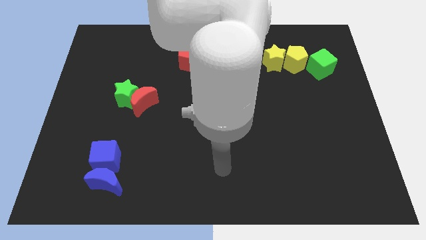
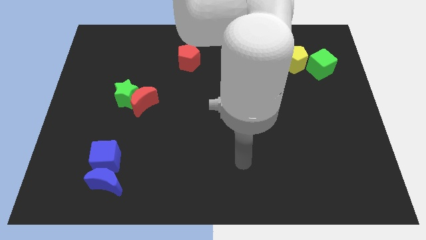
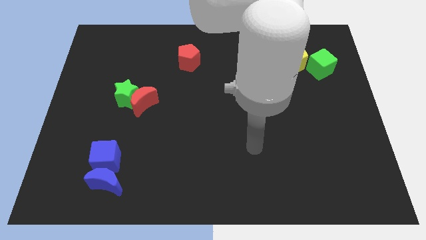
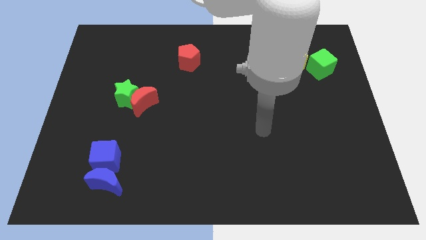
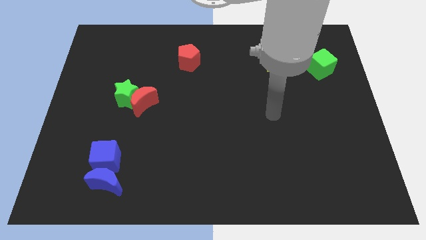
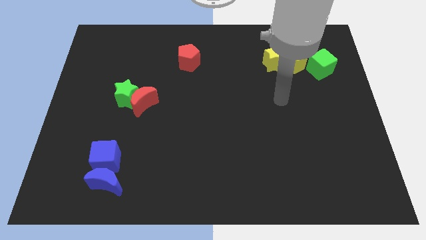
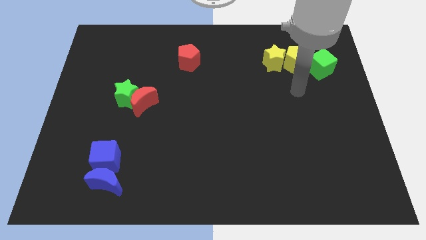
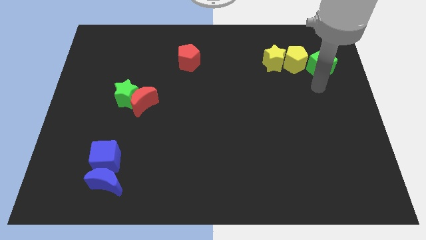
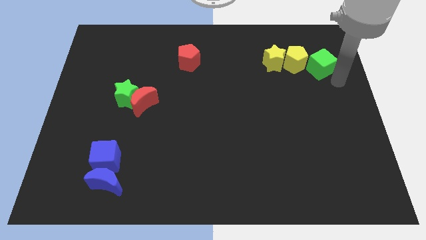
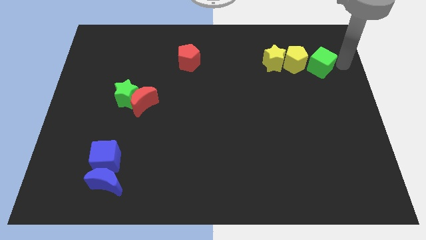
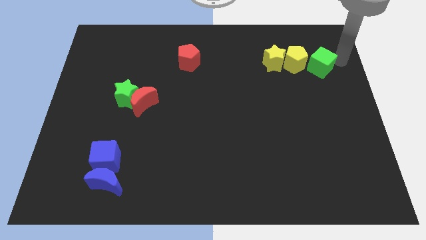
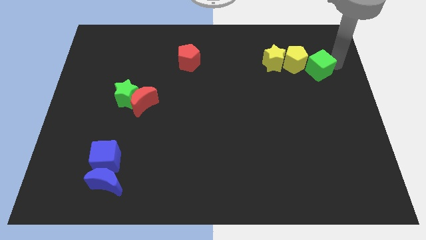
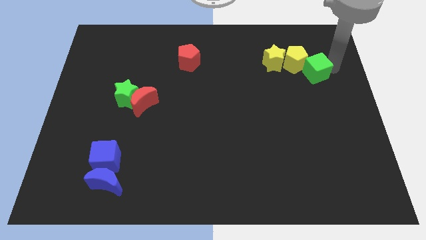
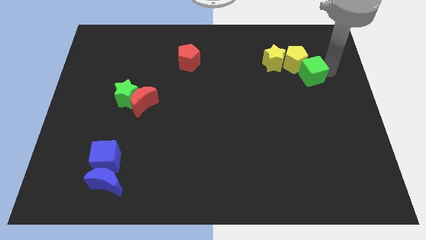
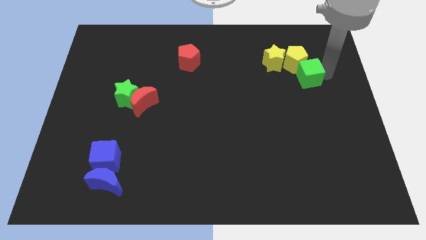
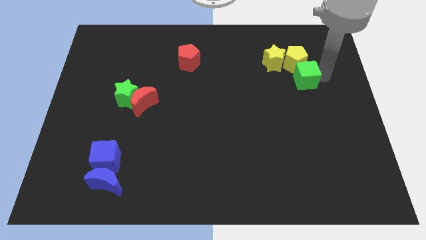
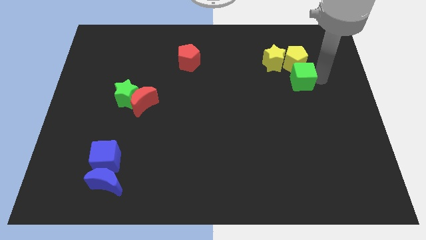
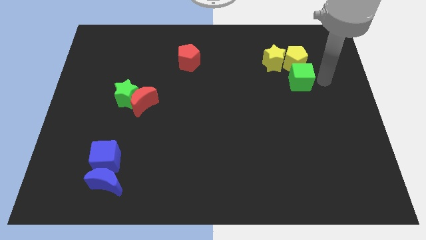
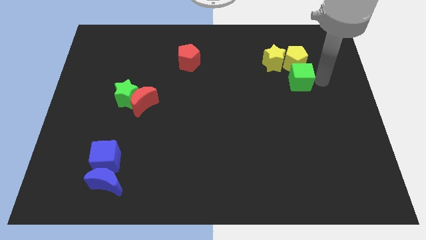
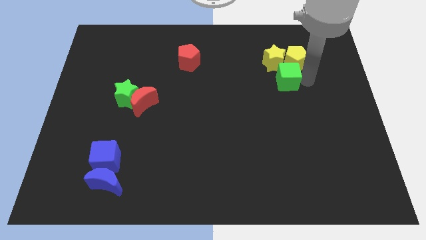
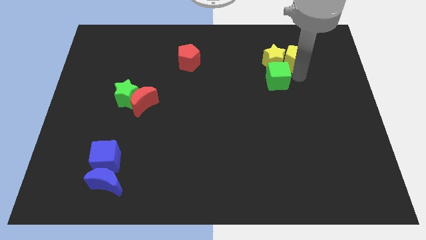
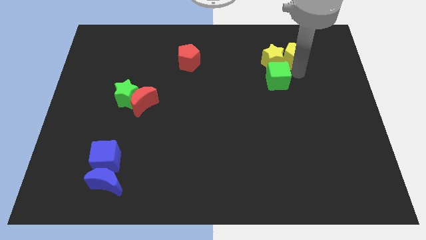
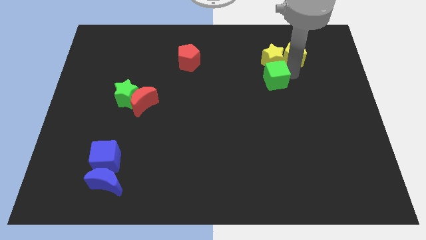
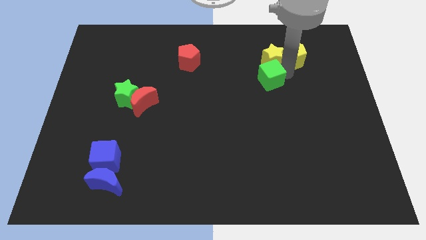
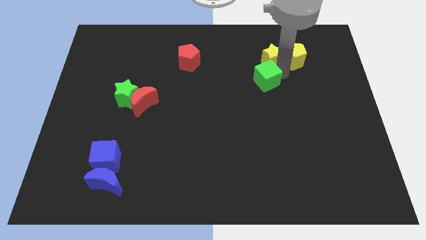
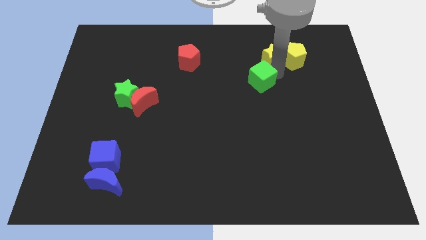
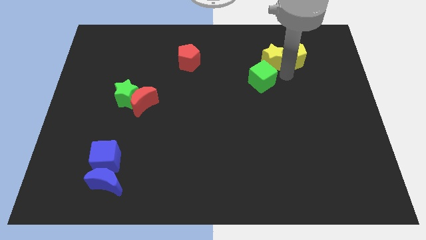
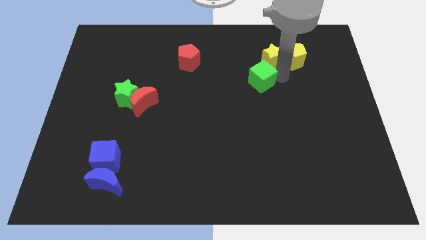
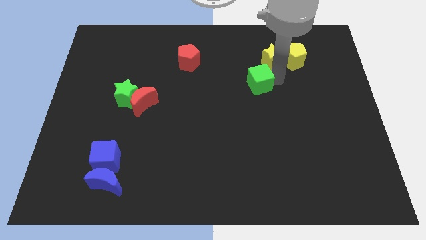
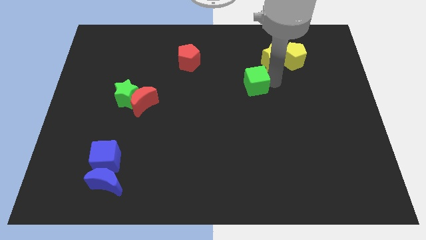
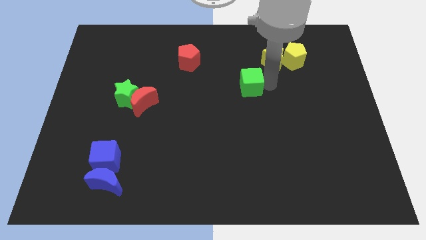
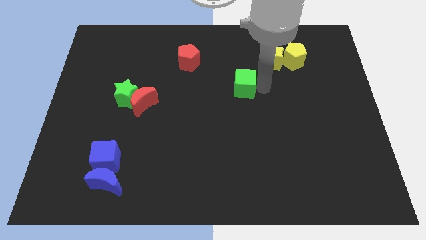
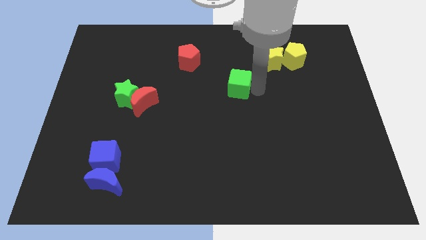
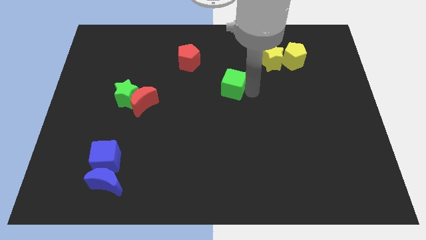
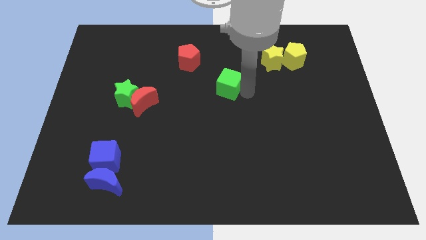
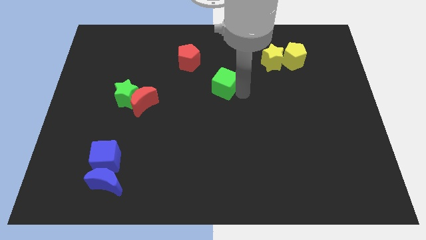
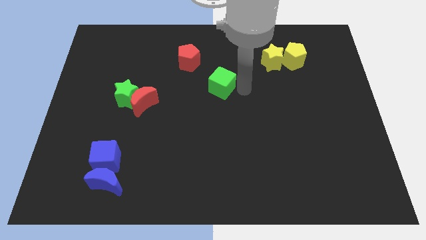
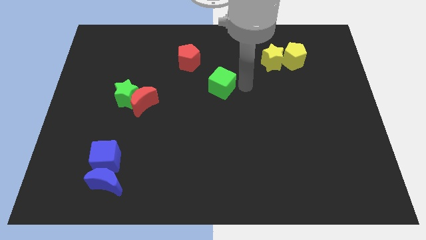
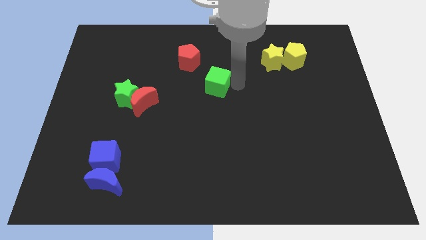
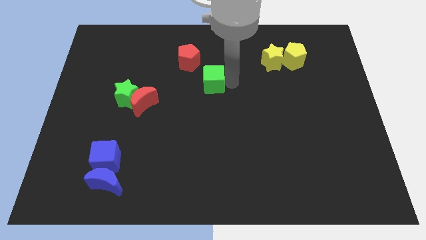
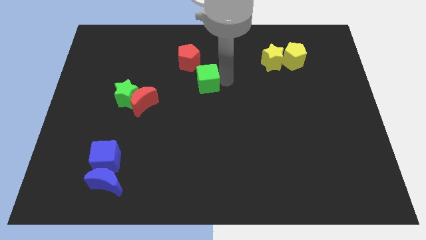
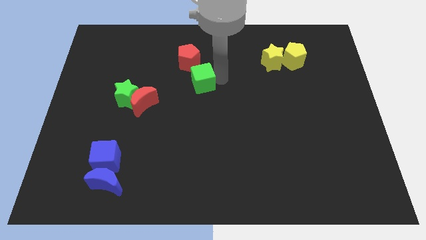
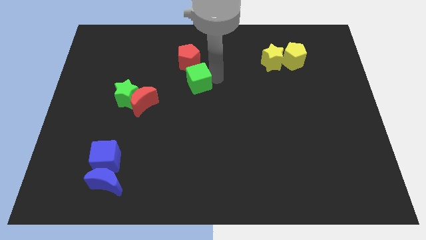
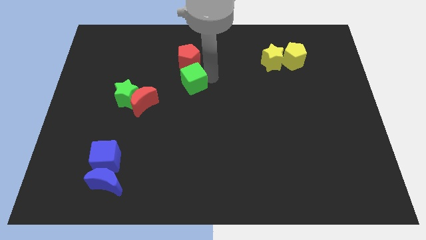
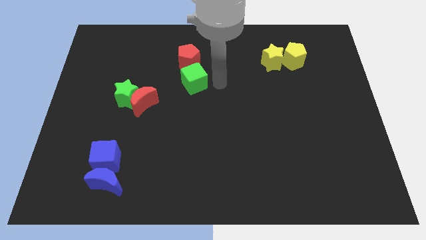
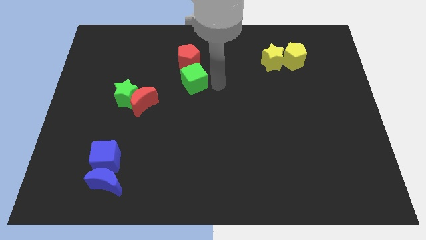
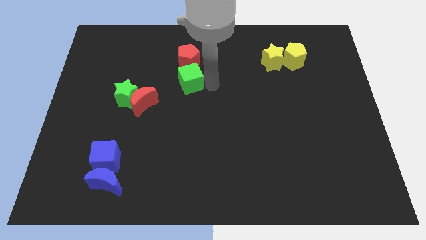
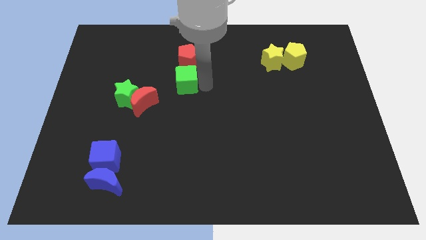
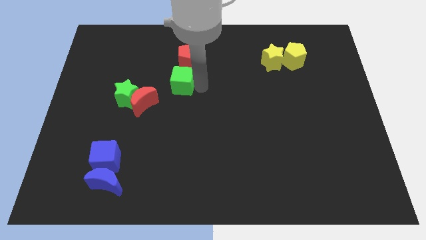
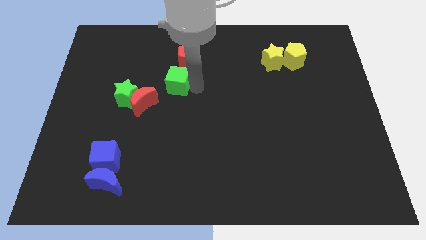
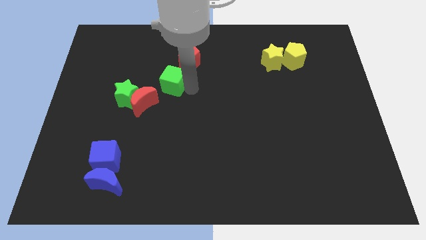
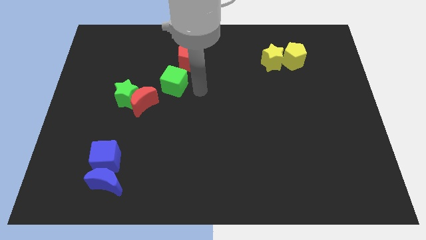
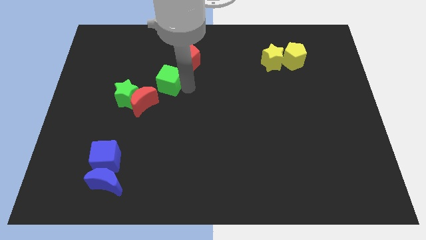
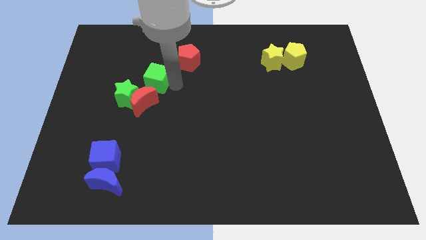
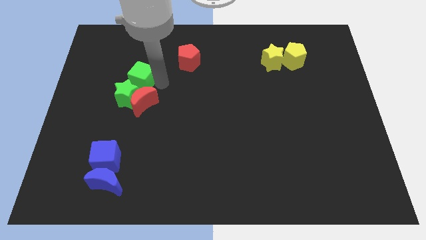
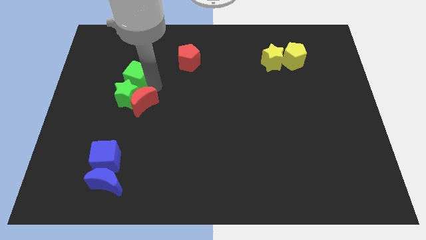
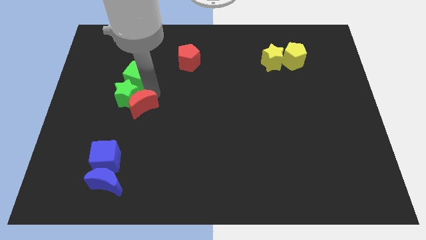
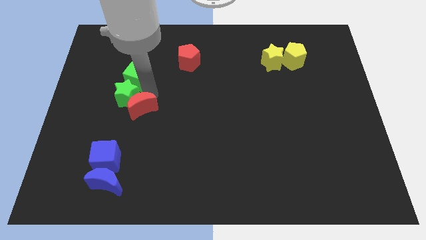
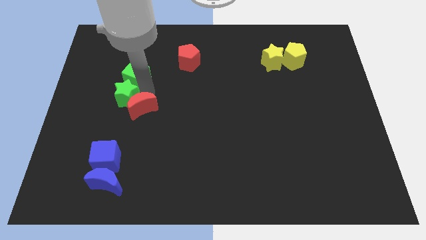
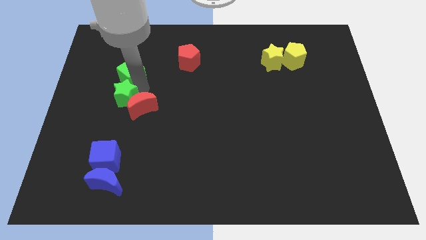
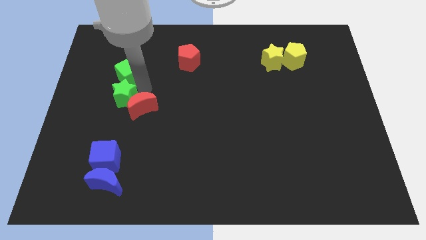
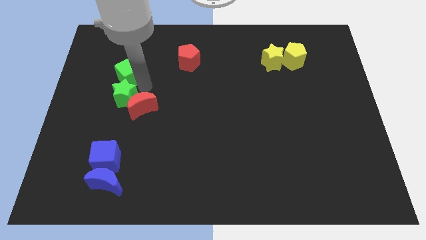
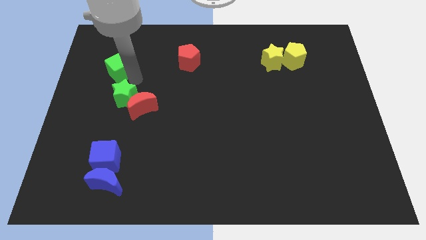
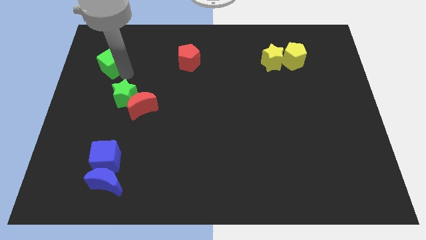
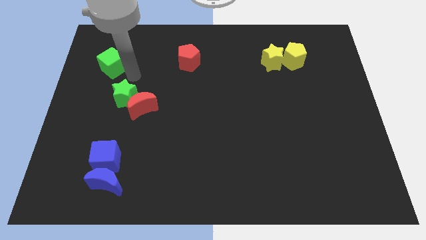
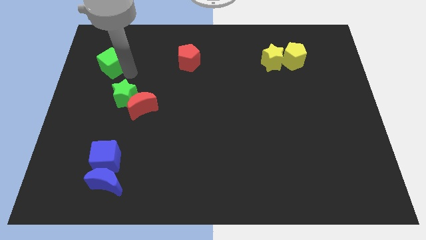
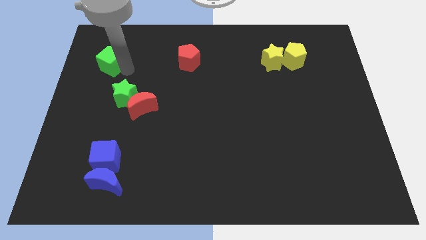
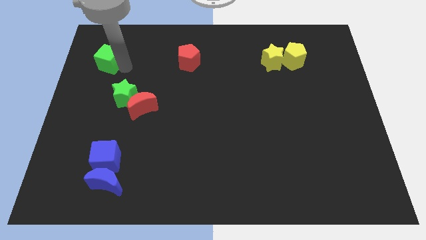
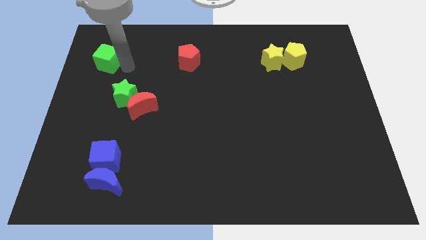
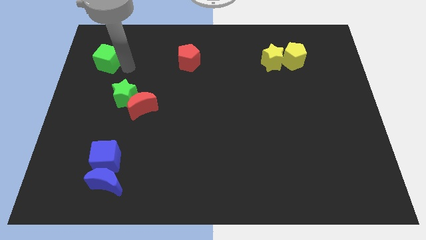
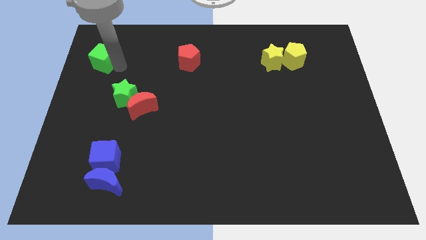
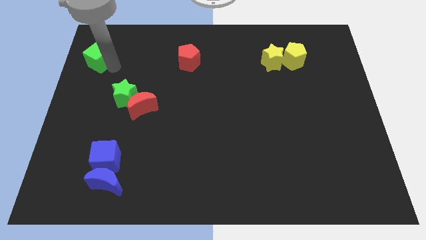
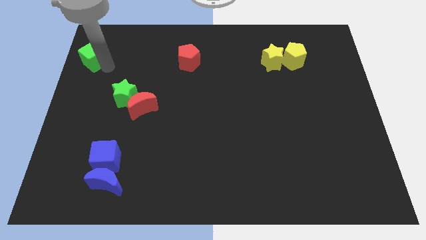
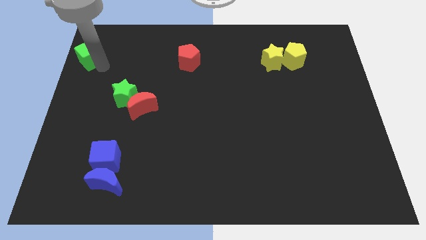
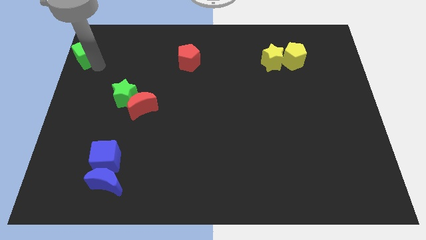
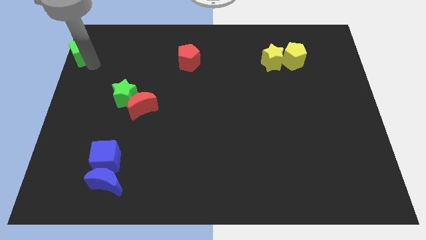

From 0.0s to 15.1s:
push the green cube to the upper left corner
